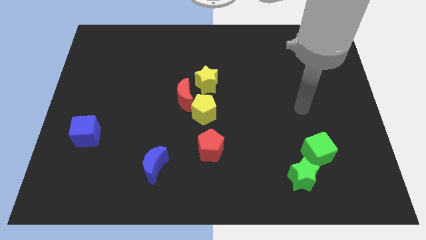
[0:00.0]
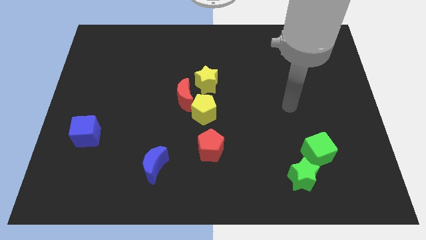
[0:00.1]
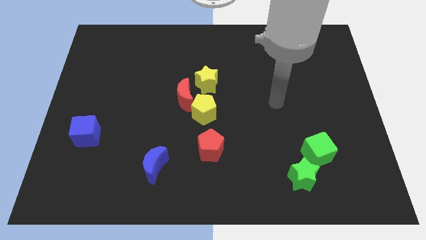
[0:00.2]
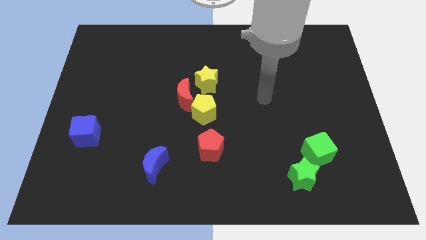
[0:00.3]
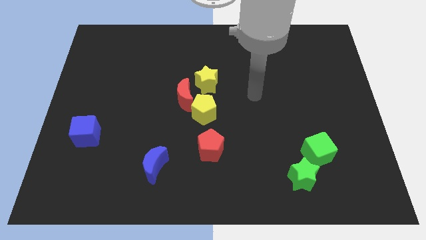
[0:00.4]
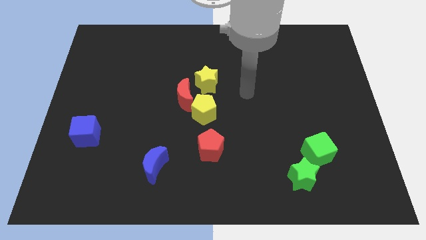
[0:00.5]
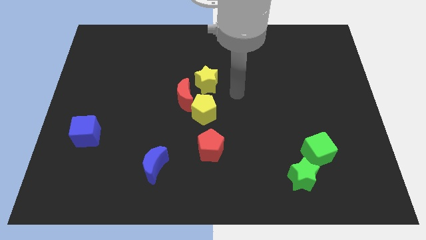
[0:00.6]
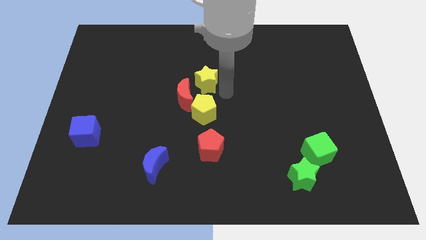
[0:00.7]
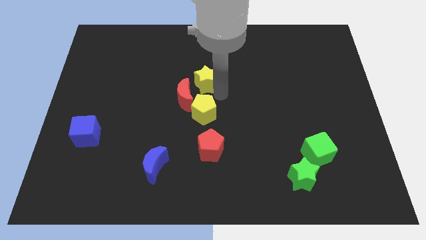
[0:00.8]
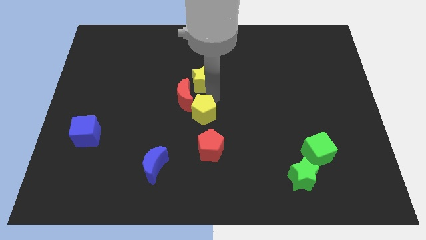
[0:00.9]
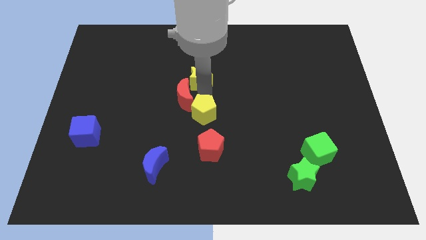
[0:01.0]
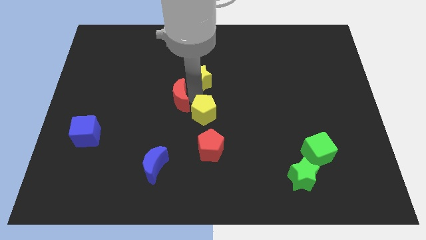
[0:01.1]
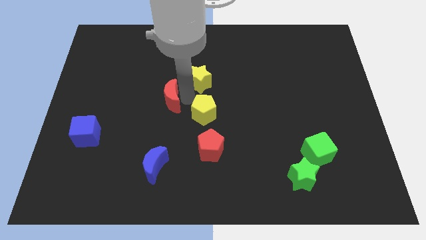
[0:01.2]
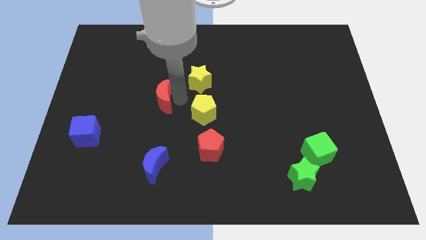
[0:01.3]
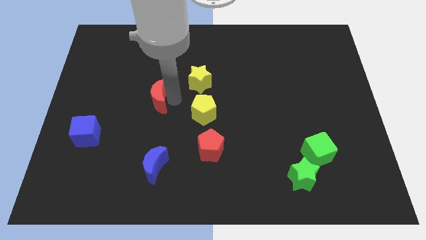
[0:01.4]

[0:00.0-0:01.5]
move the red moon away from the yellow pentagon and yellow star

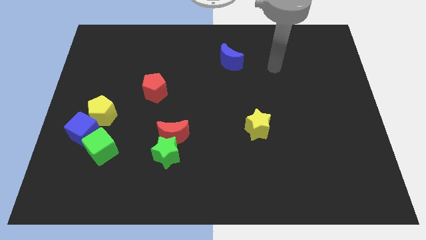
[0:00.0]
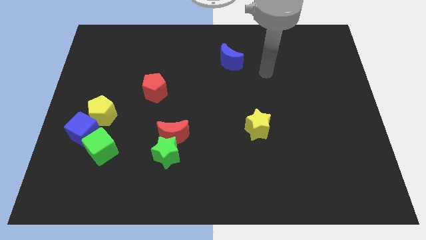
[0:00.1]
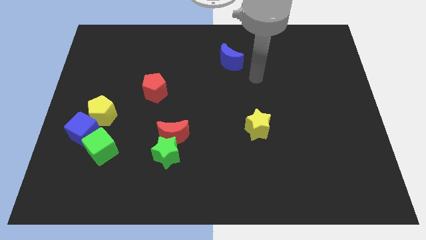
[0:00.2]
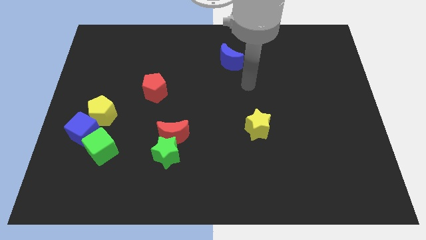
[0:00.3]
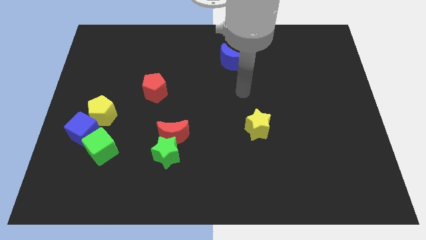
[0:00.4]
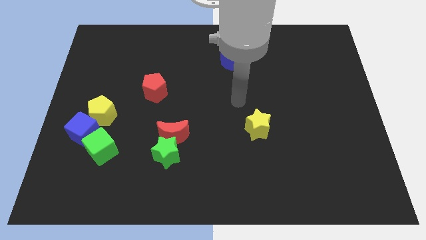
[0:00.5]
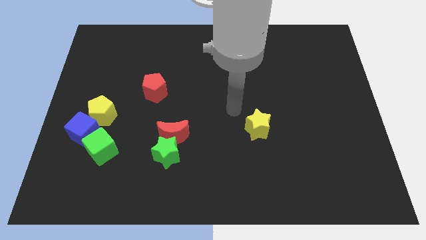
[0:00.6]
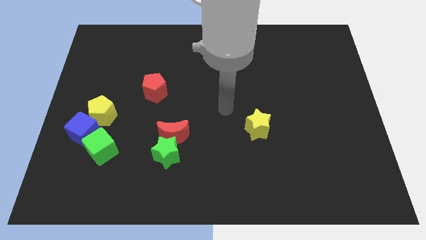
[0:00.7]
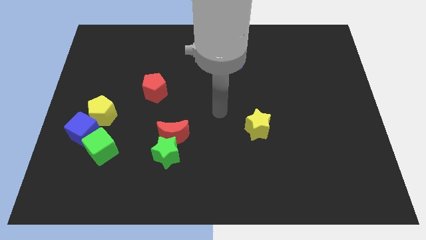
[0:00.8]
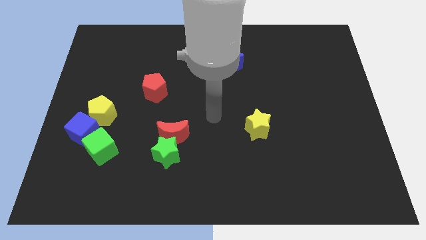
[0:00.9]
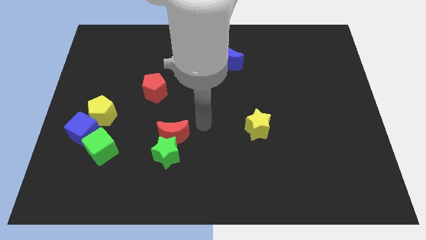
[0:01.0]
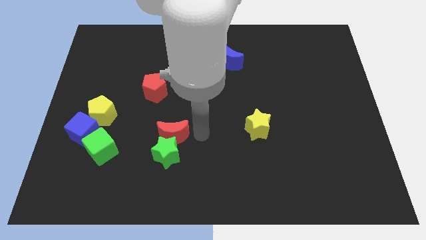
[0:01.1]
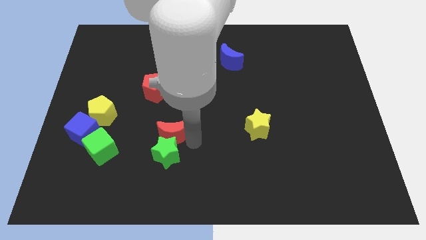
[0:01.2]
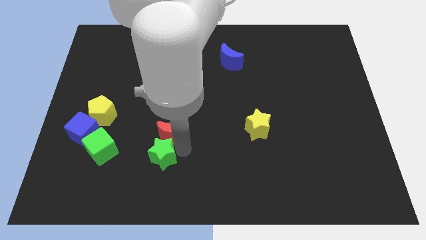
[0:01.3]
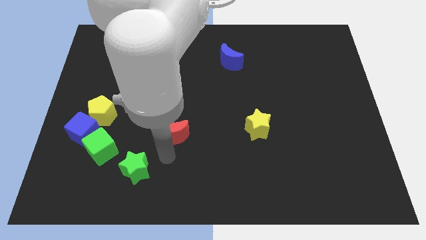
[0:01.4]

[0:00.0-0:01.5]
separate the red moon from the green star

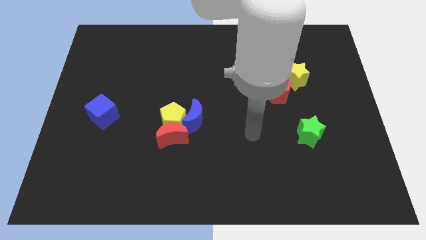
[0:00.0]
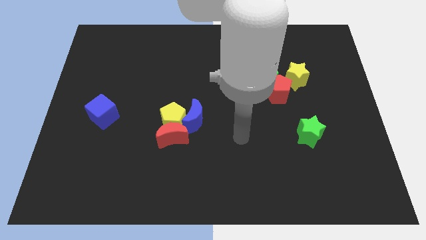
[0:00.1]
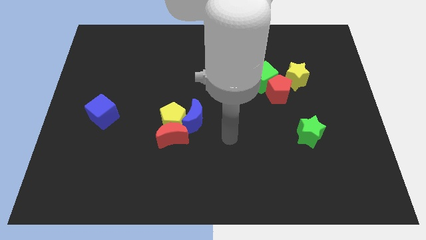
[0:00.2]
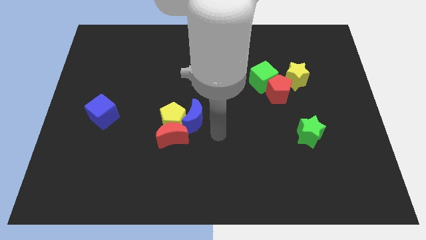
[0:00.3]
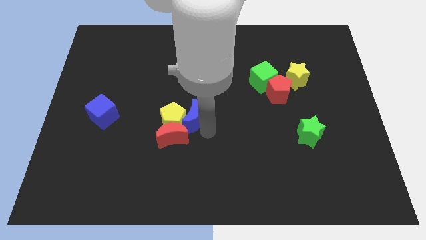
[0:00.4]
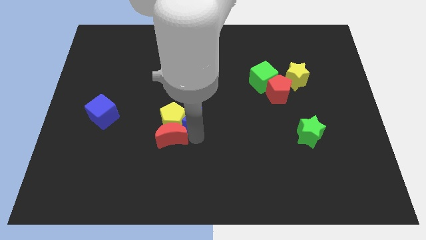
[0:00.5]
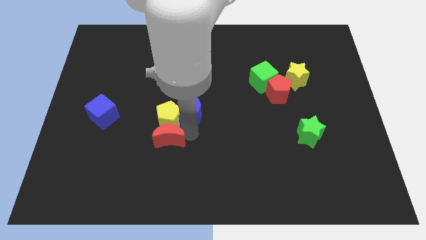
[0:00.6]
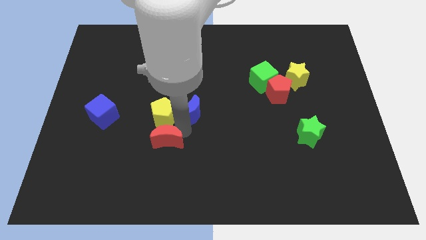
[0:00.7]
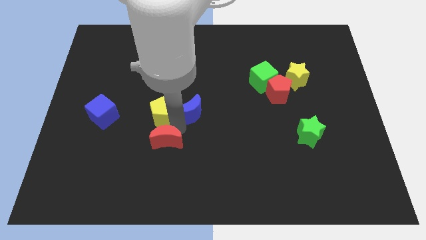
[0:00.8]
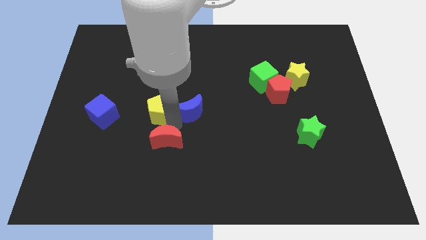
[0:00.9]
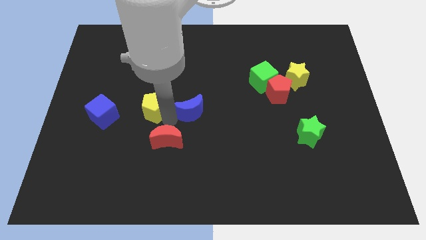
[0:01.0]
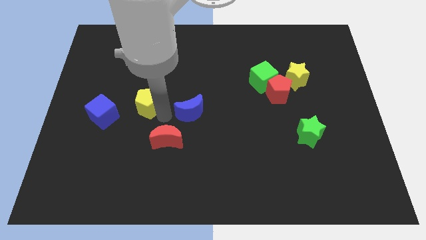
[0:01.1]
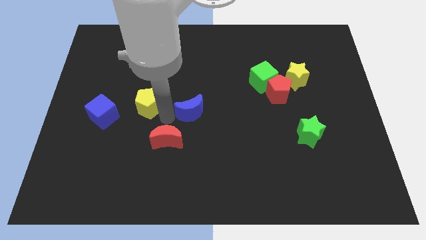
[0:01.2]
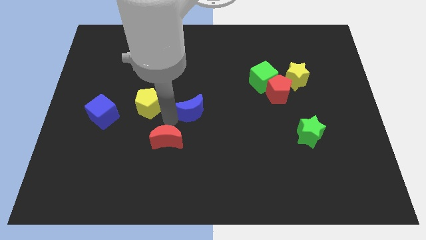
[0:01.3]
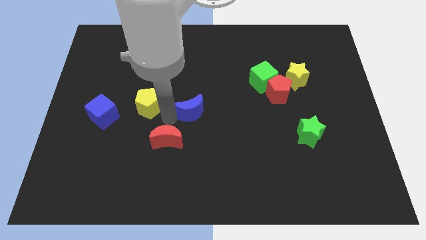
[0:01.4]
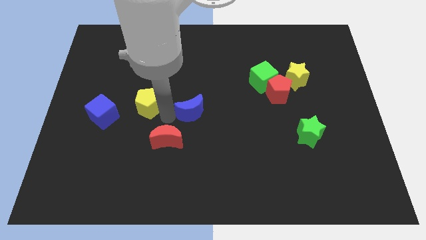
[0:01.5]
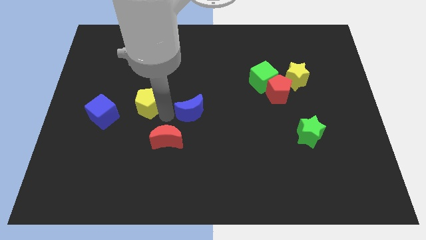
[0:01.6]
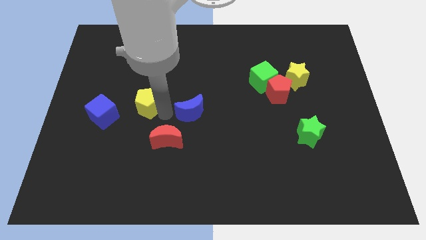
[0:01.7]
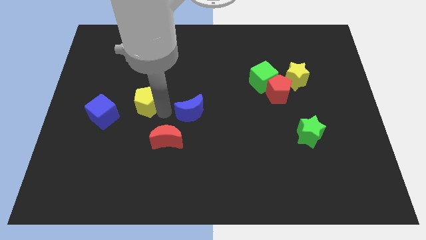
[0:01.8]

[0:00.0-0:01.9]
separate the yellow pentagon from the red moon and blue moon

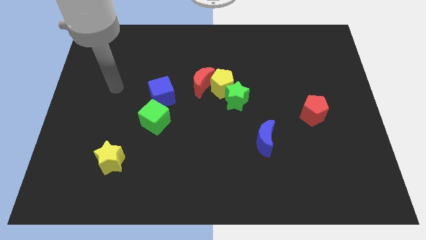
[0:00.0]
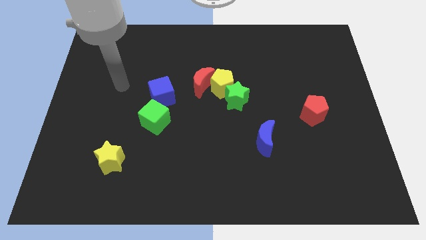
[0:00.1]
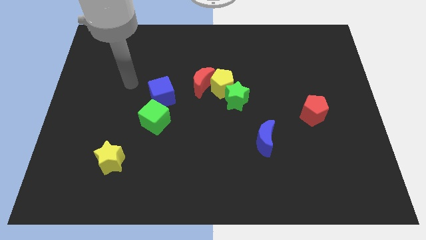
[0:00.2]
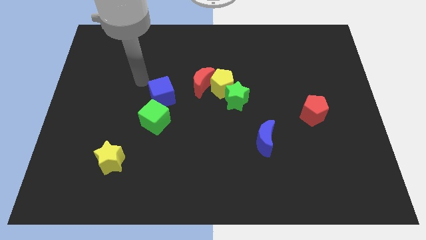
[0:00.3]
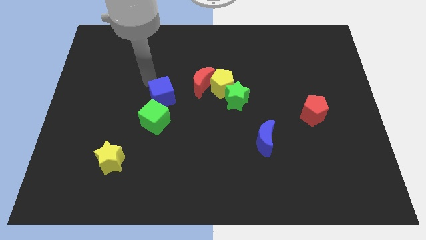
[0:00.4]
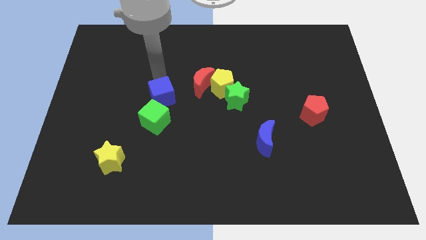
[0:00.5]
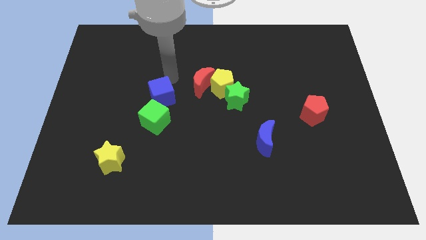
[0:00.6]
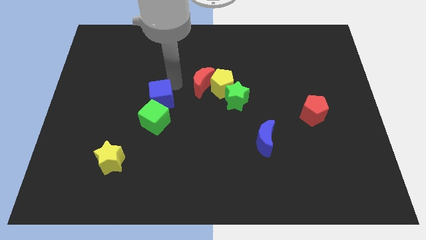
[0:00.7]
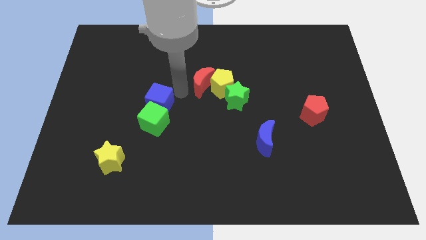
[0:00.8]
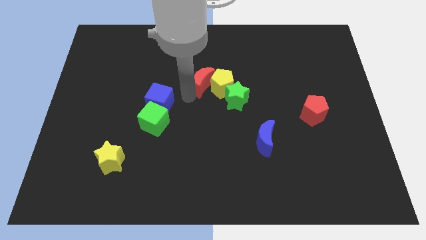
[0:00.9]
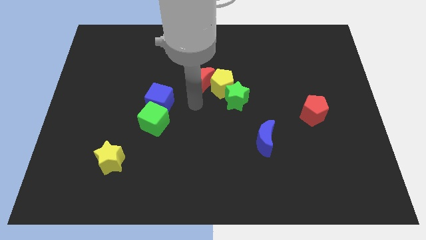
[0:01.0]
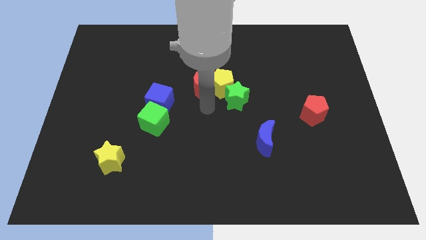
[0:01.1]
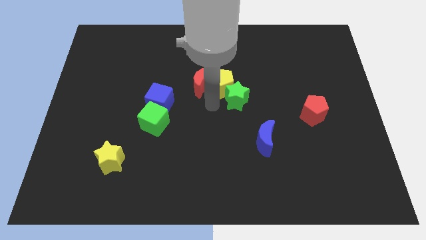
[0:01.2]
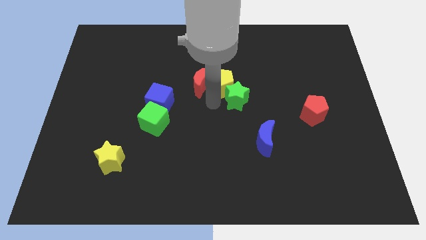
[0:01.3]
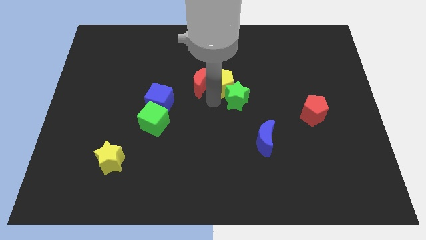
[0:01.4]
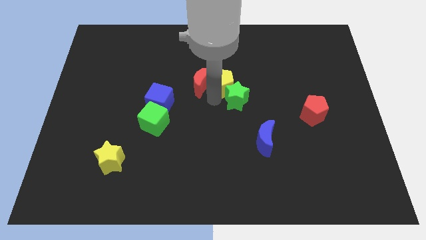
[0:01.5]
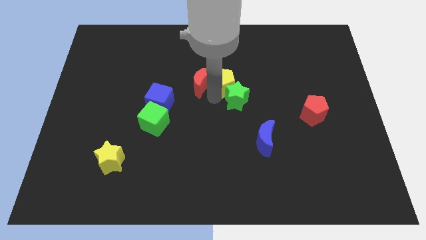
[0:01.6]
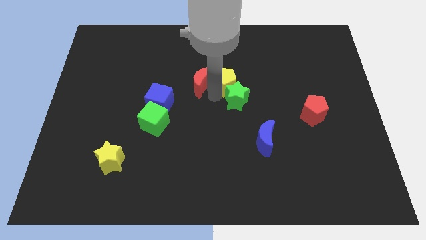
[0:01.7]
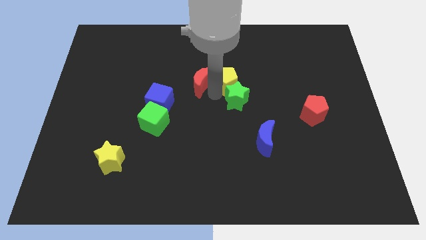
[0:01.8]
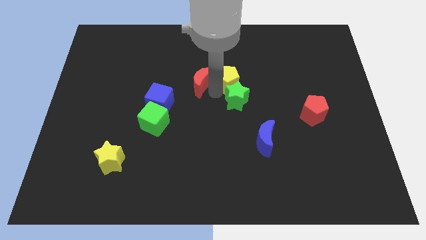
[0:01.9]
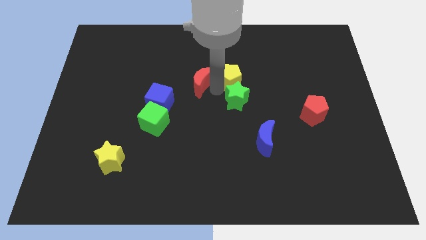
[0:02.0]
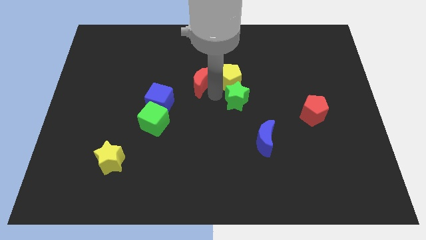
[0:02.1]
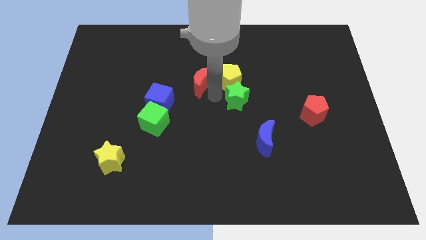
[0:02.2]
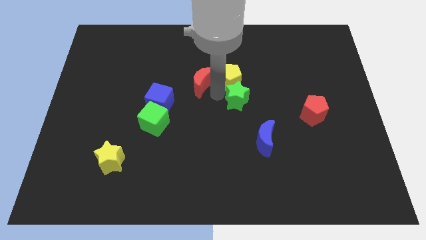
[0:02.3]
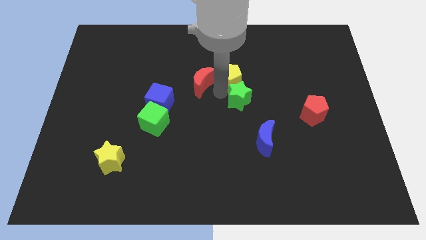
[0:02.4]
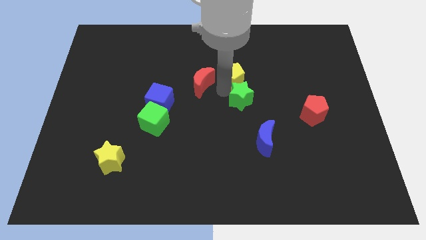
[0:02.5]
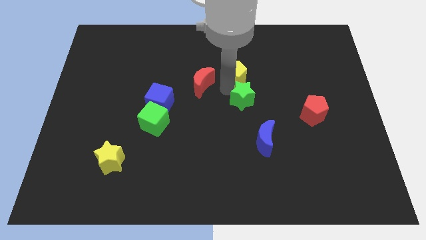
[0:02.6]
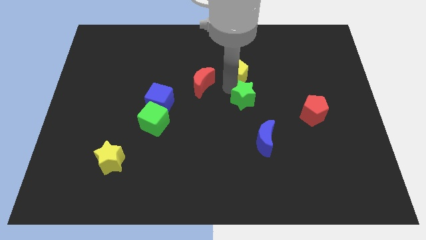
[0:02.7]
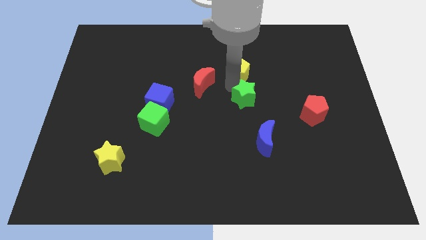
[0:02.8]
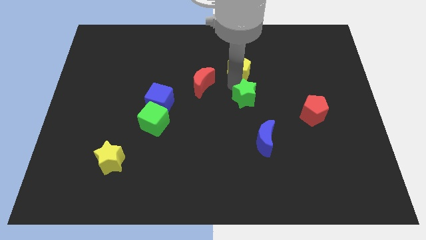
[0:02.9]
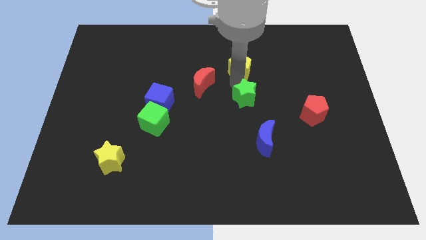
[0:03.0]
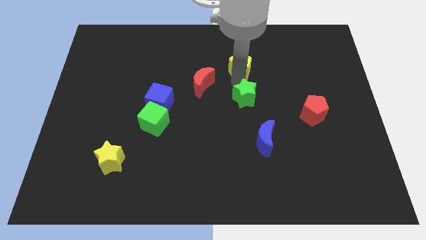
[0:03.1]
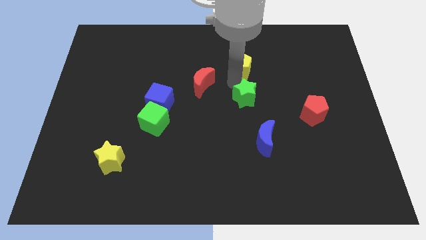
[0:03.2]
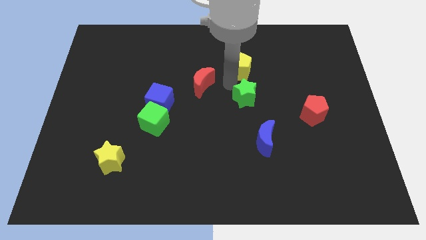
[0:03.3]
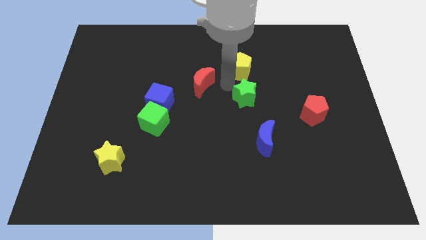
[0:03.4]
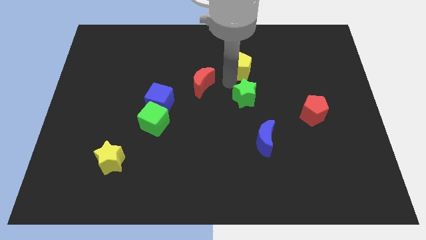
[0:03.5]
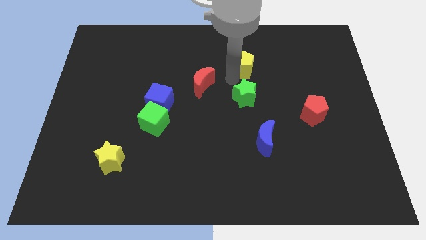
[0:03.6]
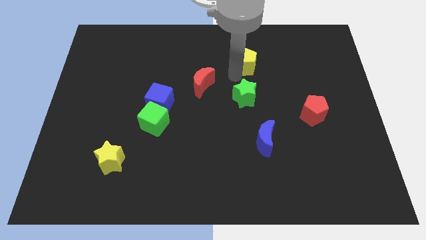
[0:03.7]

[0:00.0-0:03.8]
move the yellow pentagon away from the red moon and green star

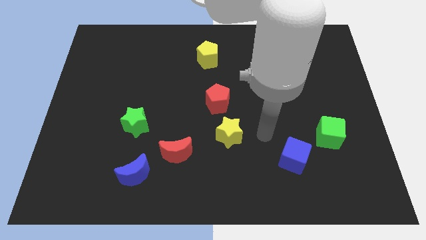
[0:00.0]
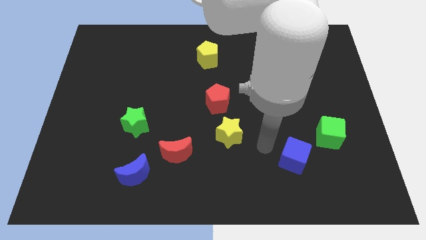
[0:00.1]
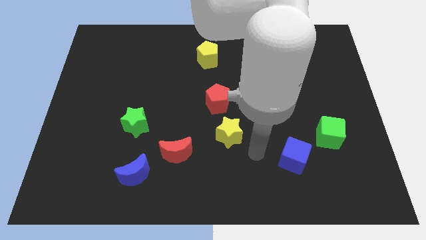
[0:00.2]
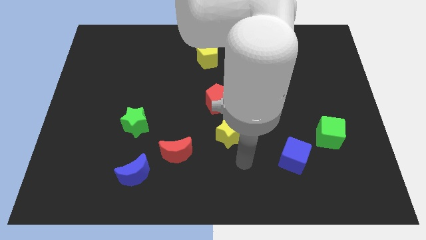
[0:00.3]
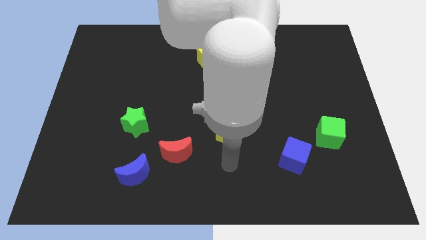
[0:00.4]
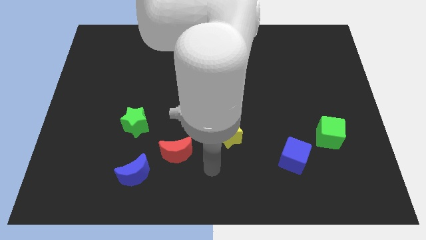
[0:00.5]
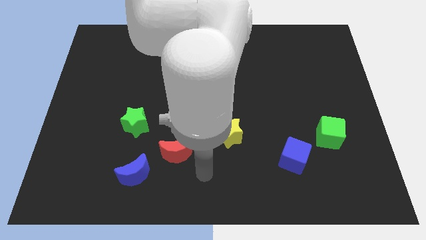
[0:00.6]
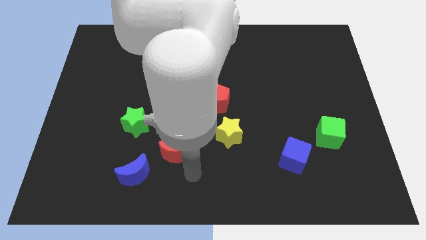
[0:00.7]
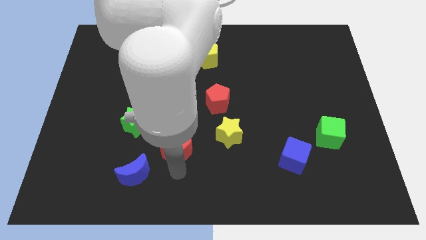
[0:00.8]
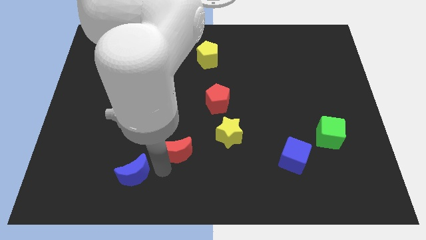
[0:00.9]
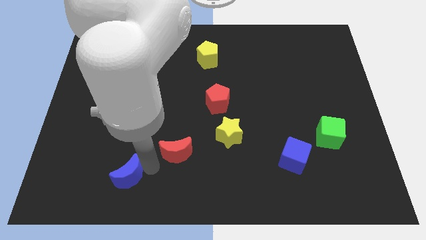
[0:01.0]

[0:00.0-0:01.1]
separate the red moon from the blue moon
